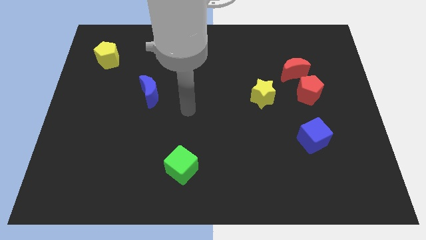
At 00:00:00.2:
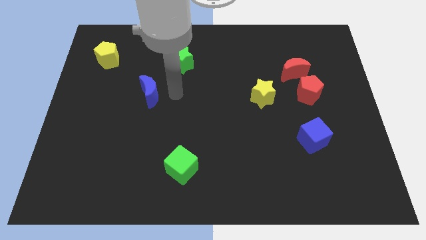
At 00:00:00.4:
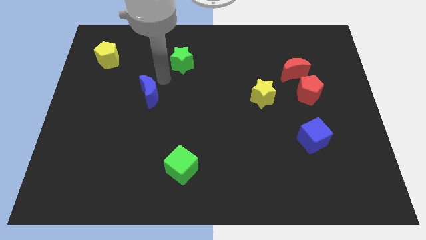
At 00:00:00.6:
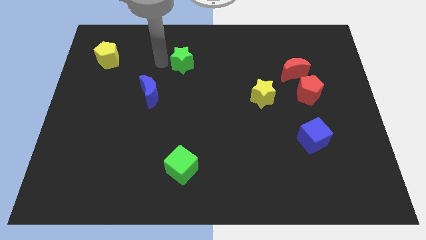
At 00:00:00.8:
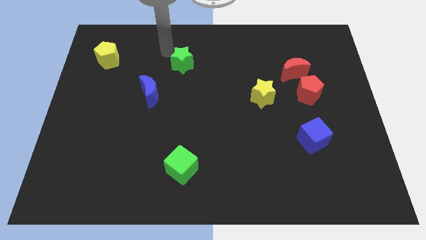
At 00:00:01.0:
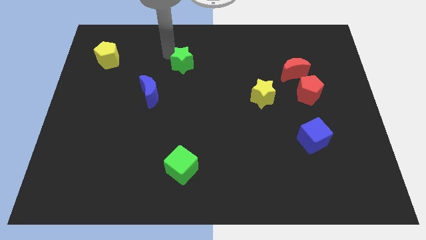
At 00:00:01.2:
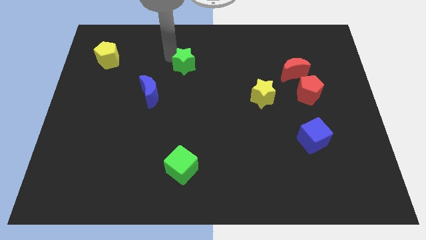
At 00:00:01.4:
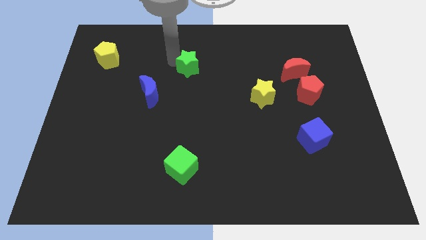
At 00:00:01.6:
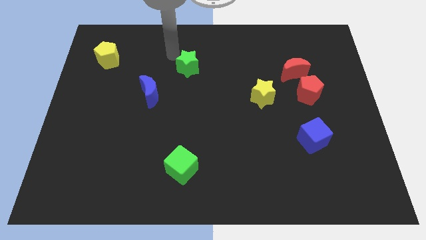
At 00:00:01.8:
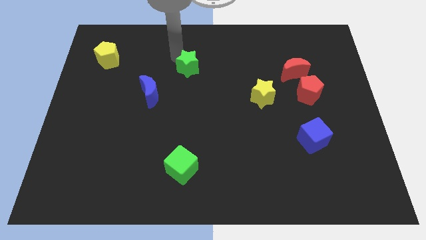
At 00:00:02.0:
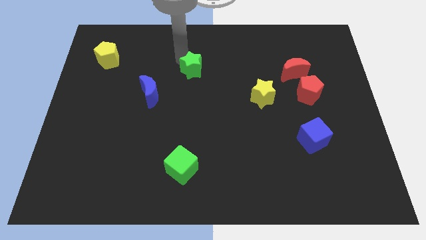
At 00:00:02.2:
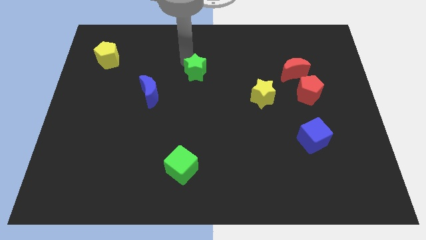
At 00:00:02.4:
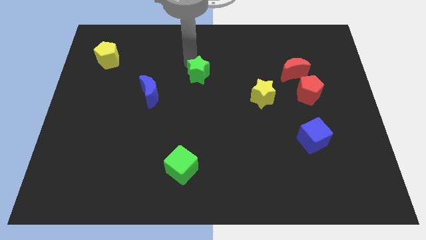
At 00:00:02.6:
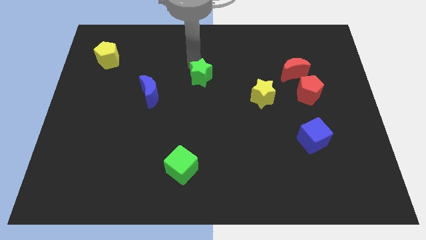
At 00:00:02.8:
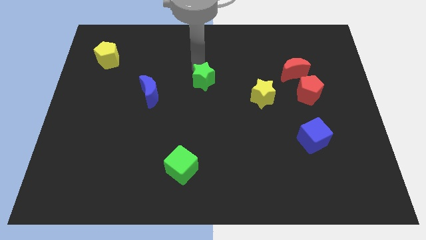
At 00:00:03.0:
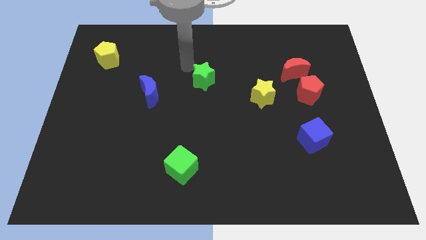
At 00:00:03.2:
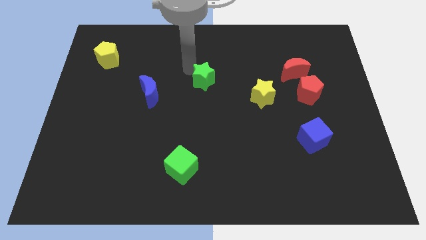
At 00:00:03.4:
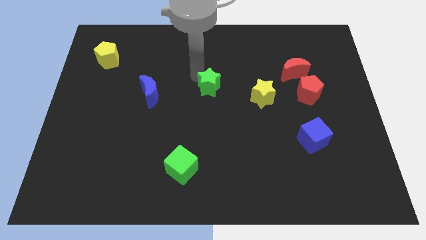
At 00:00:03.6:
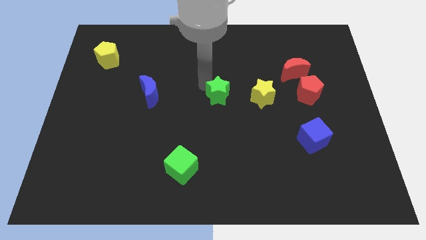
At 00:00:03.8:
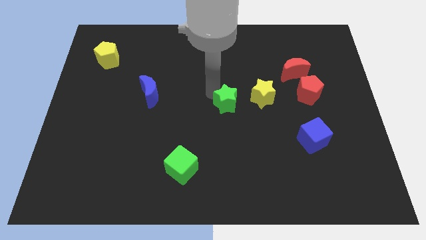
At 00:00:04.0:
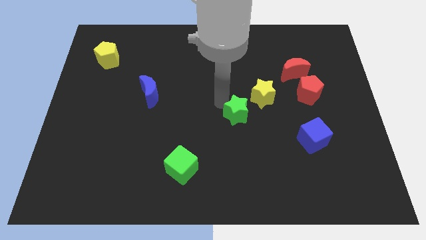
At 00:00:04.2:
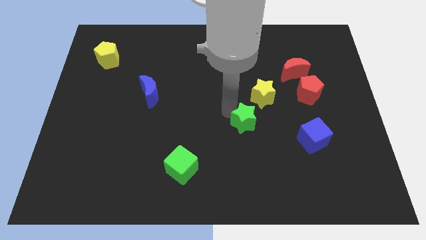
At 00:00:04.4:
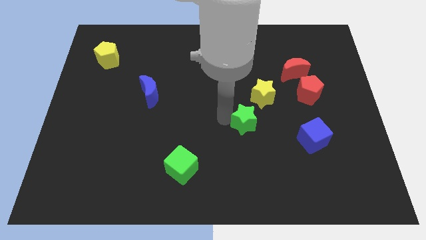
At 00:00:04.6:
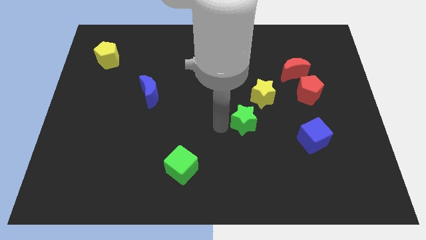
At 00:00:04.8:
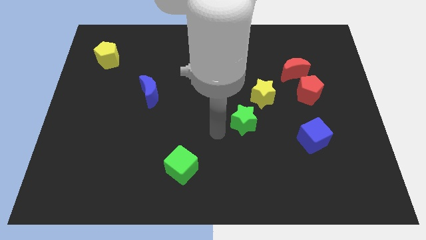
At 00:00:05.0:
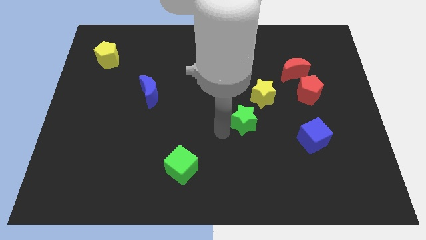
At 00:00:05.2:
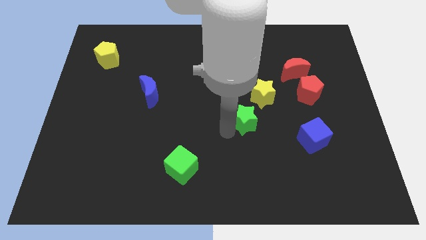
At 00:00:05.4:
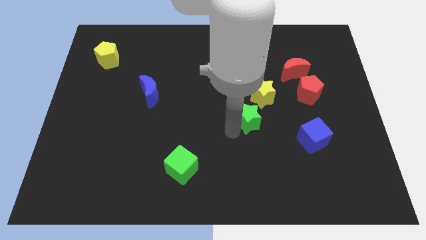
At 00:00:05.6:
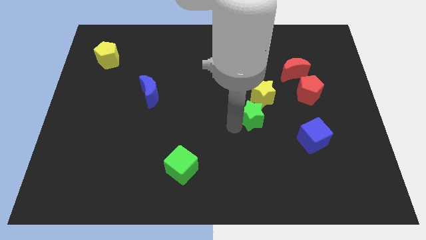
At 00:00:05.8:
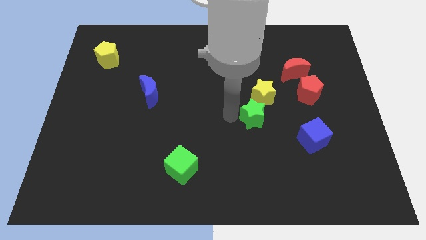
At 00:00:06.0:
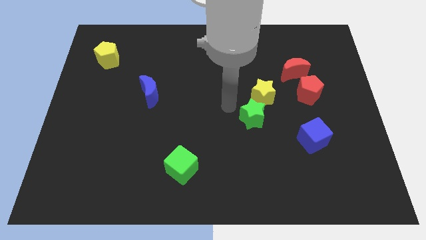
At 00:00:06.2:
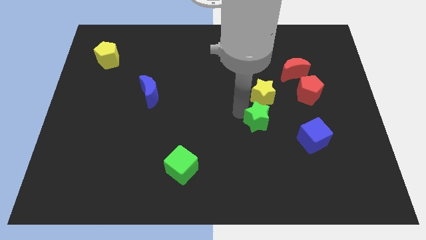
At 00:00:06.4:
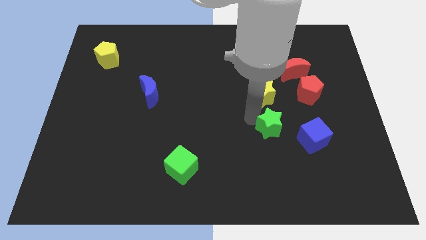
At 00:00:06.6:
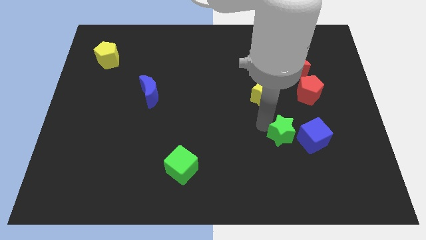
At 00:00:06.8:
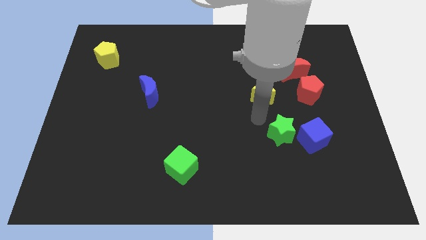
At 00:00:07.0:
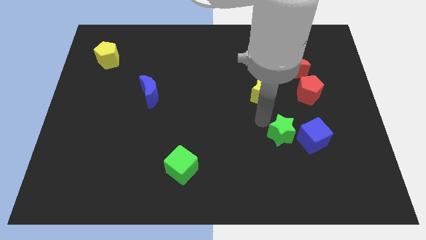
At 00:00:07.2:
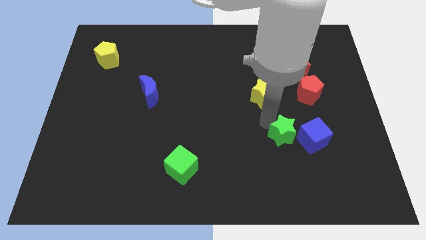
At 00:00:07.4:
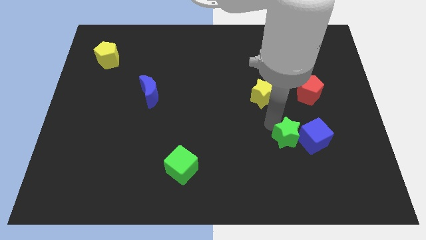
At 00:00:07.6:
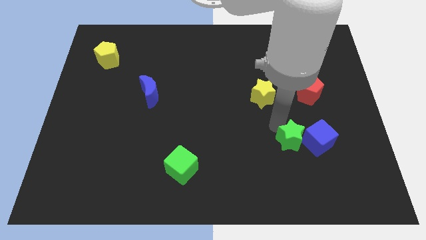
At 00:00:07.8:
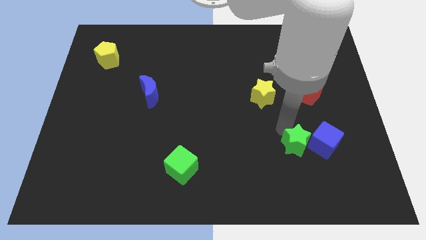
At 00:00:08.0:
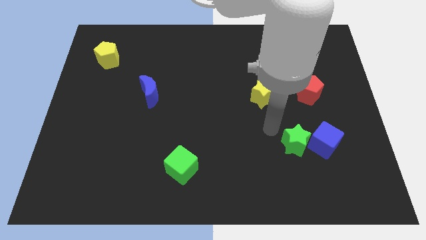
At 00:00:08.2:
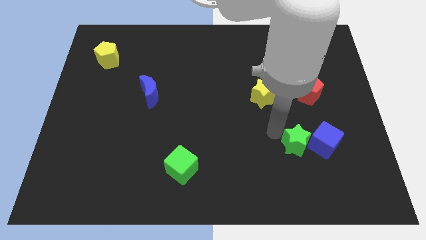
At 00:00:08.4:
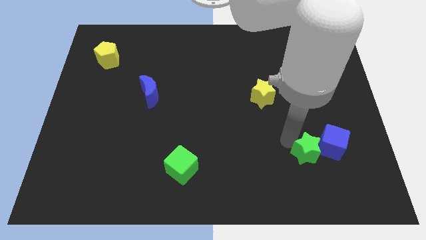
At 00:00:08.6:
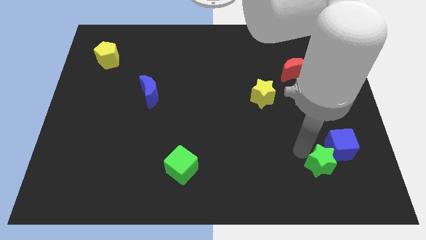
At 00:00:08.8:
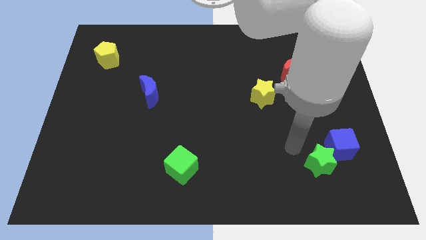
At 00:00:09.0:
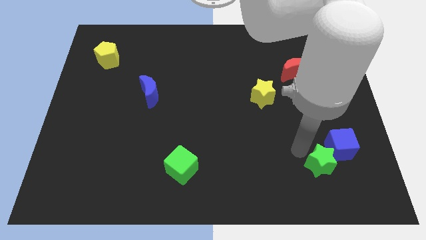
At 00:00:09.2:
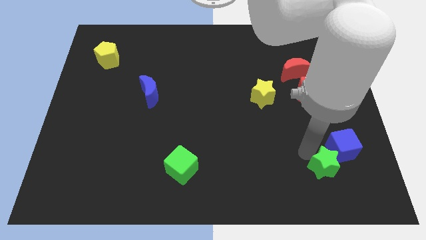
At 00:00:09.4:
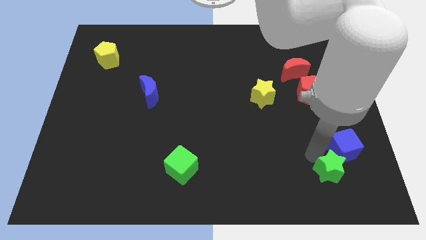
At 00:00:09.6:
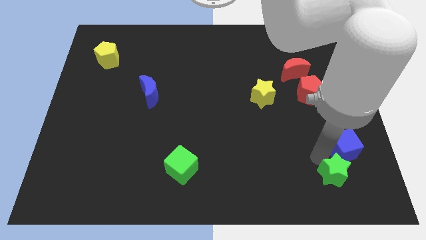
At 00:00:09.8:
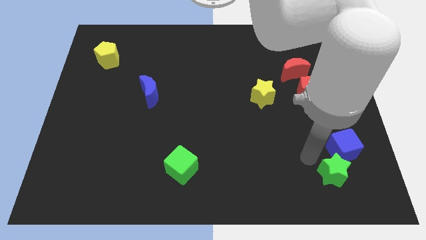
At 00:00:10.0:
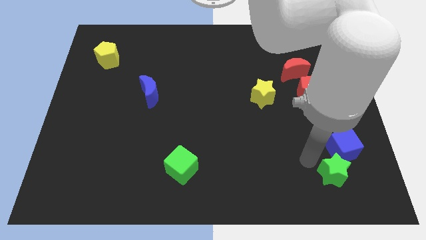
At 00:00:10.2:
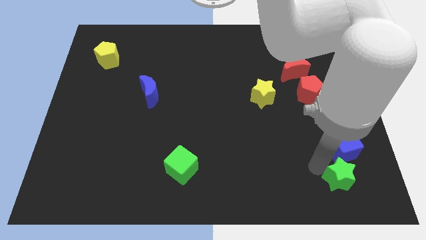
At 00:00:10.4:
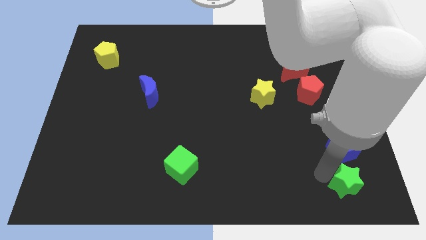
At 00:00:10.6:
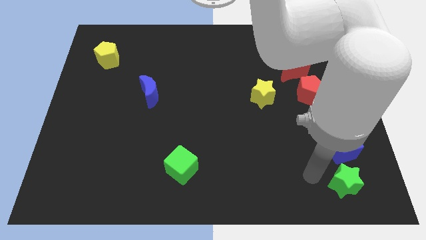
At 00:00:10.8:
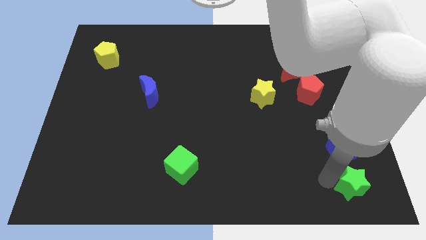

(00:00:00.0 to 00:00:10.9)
put the green star to the lower right corner
